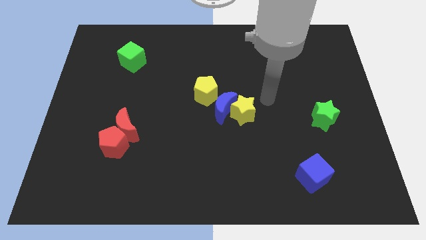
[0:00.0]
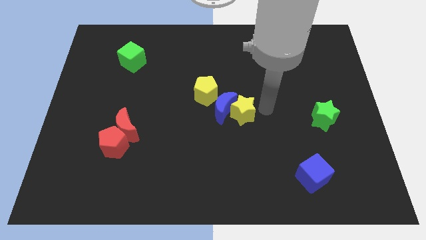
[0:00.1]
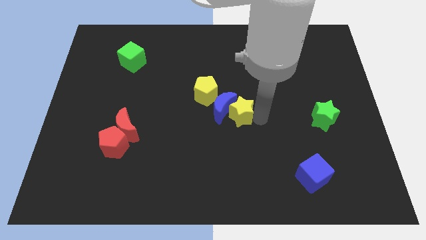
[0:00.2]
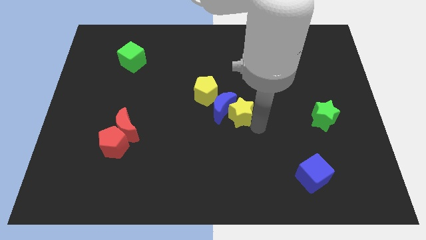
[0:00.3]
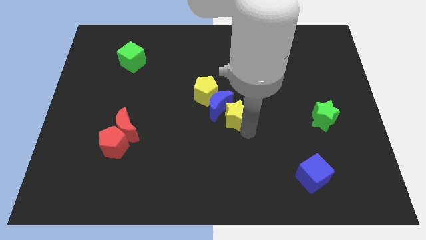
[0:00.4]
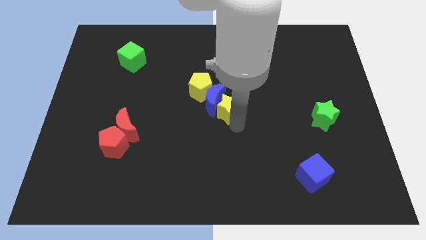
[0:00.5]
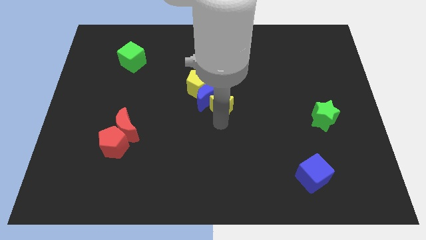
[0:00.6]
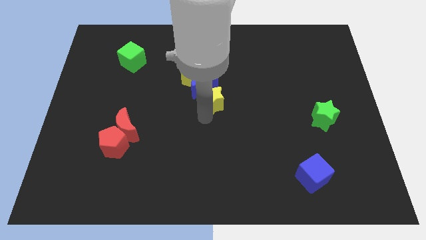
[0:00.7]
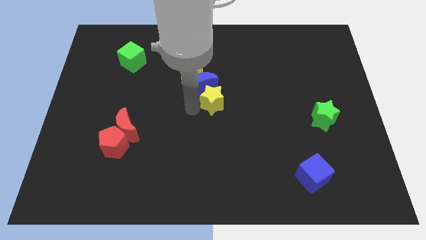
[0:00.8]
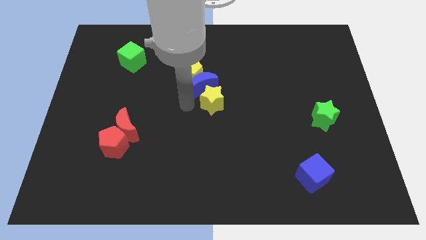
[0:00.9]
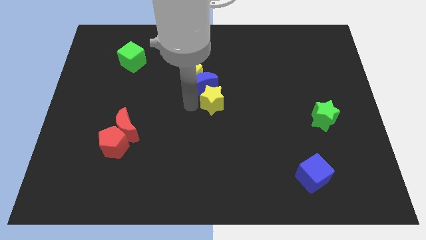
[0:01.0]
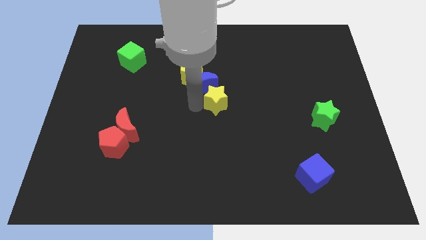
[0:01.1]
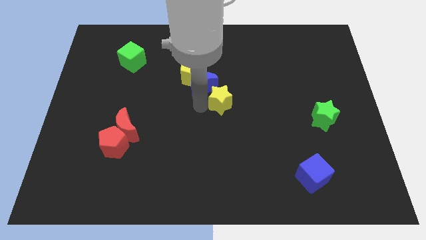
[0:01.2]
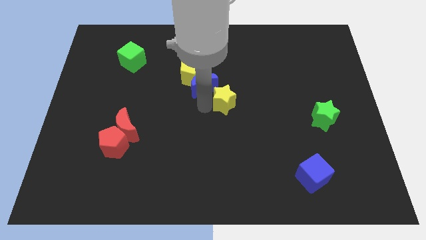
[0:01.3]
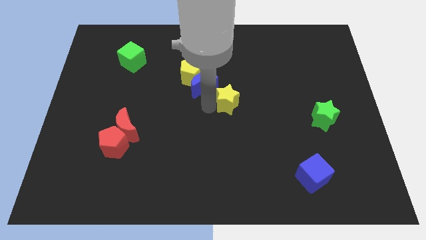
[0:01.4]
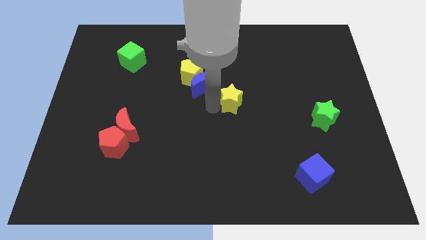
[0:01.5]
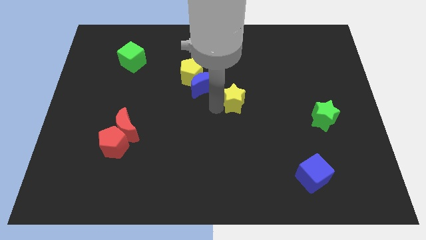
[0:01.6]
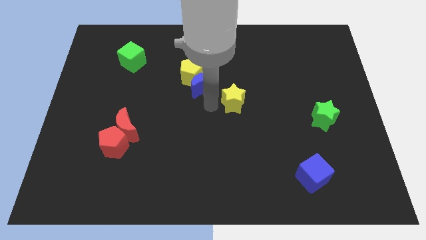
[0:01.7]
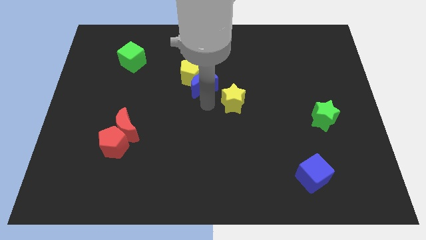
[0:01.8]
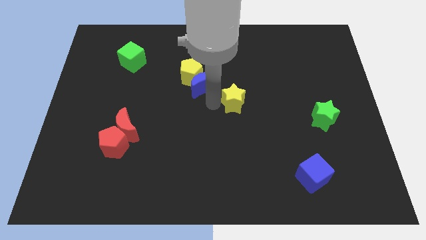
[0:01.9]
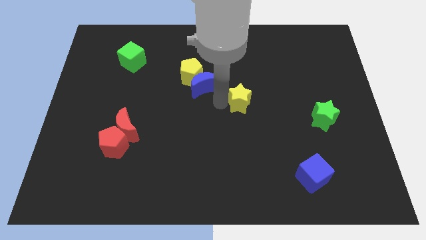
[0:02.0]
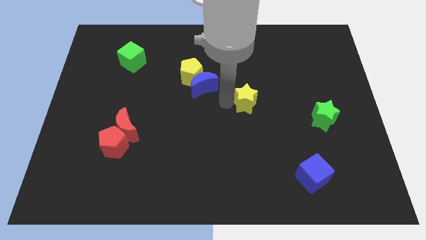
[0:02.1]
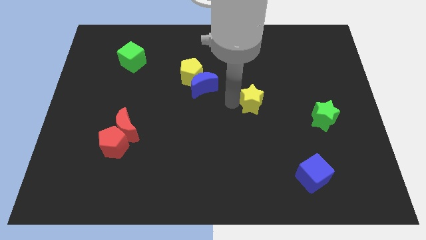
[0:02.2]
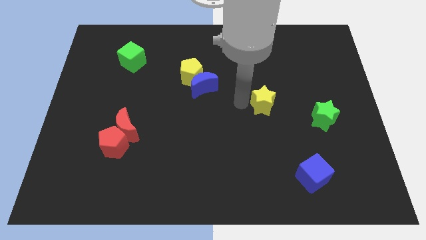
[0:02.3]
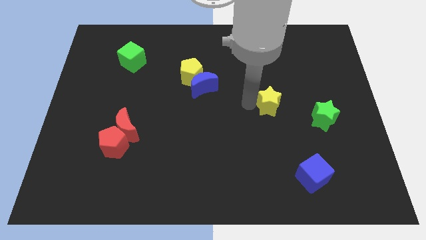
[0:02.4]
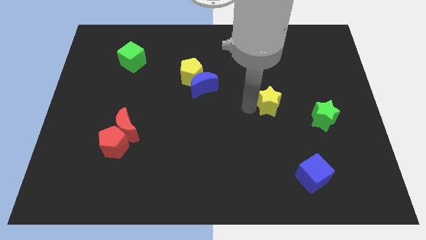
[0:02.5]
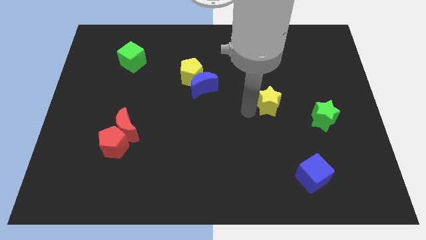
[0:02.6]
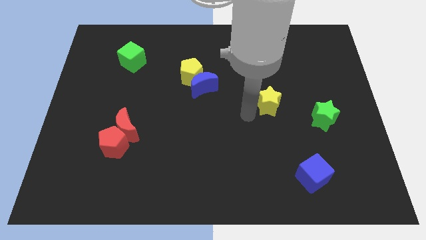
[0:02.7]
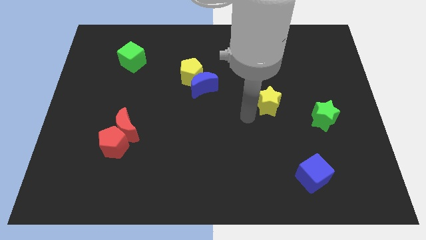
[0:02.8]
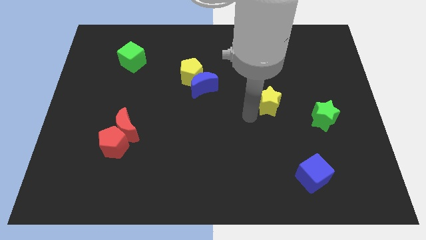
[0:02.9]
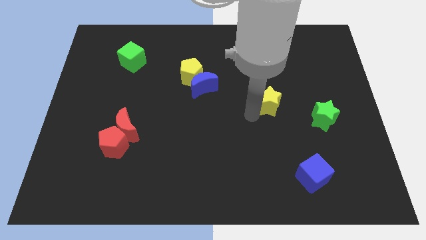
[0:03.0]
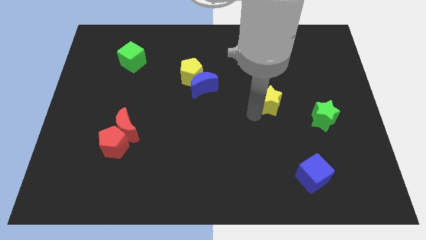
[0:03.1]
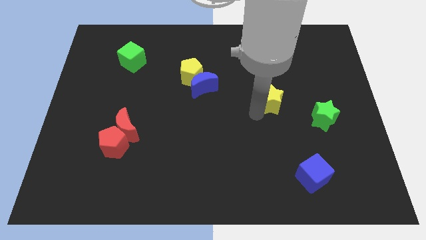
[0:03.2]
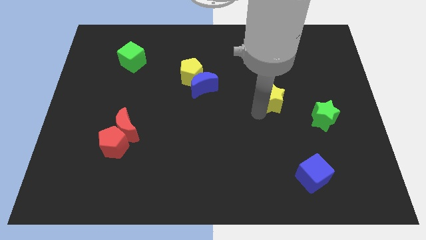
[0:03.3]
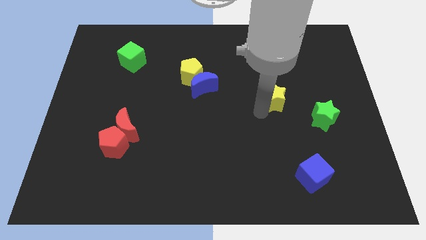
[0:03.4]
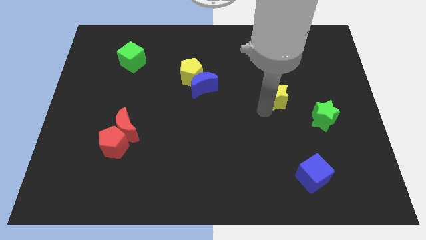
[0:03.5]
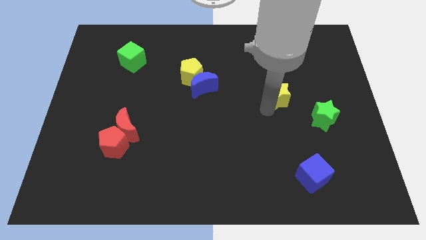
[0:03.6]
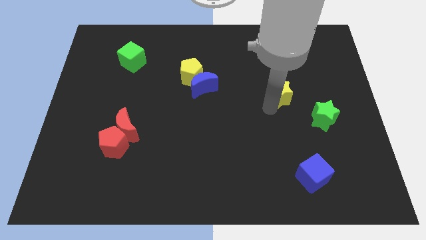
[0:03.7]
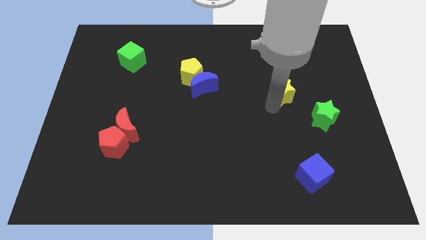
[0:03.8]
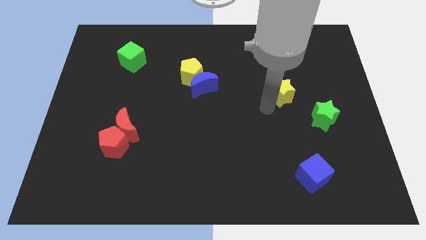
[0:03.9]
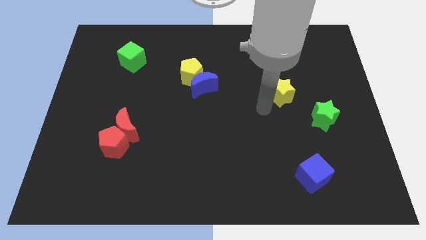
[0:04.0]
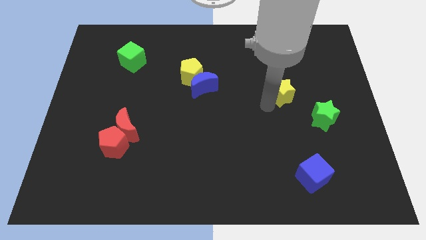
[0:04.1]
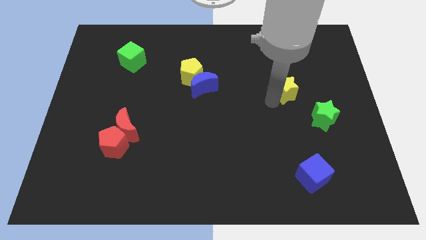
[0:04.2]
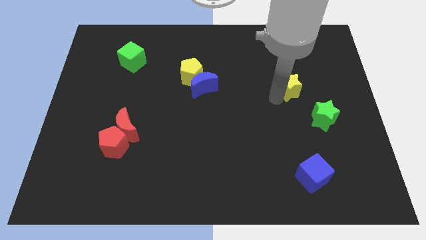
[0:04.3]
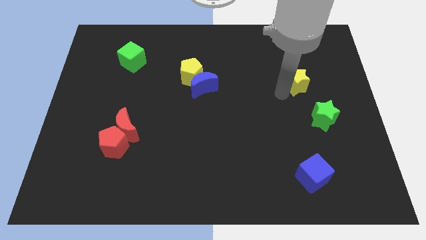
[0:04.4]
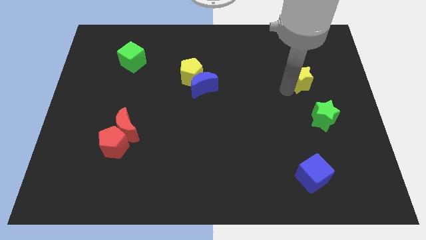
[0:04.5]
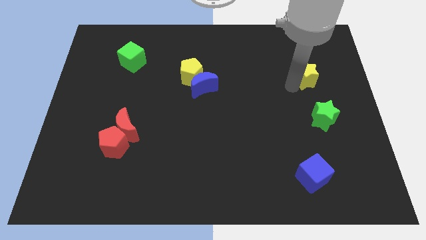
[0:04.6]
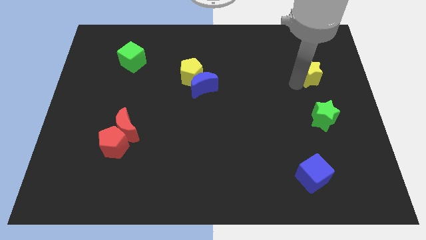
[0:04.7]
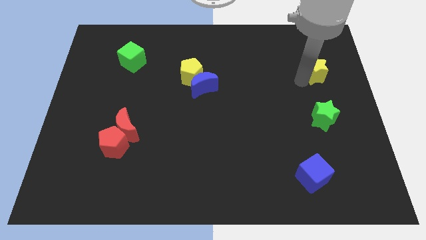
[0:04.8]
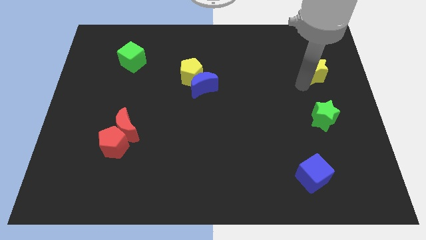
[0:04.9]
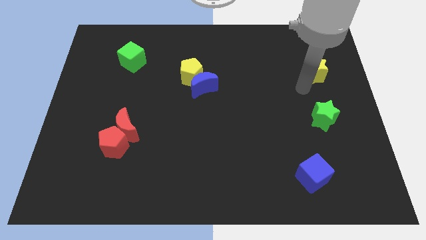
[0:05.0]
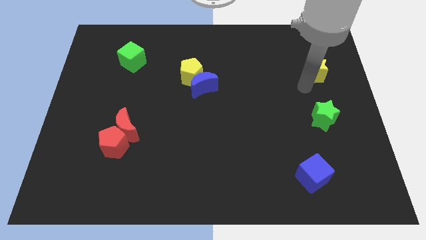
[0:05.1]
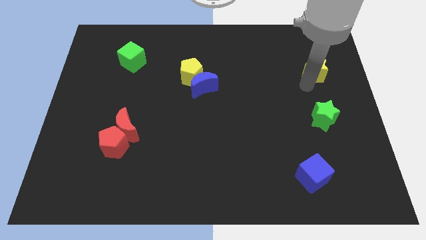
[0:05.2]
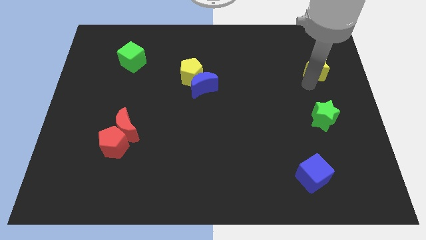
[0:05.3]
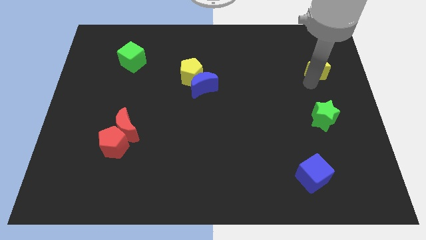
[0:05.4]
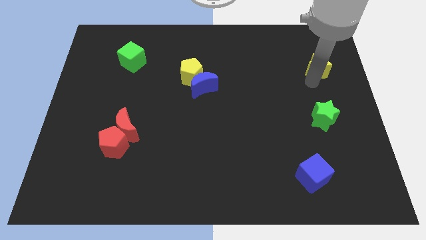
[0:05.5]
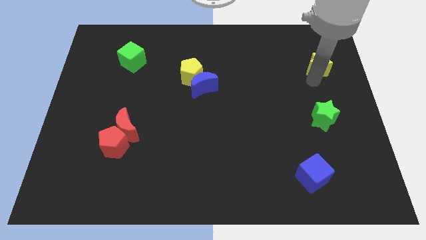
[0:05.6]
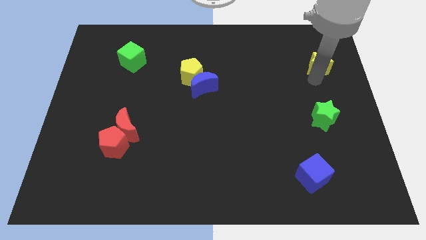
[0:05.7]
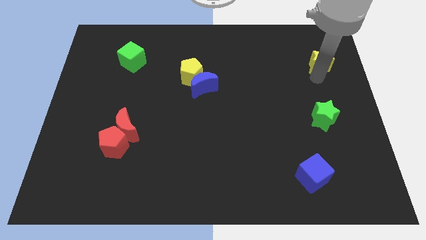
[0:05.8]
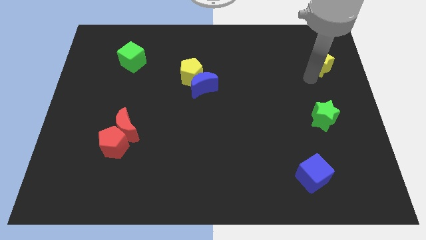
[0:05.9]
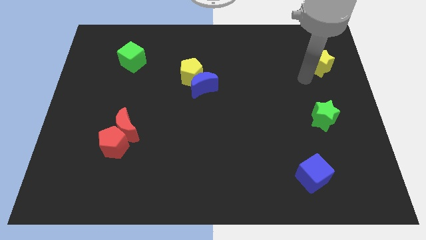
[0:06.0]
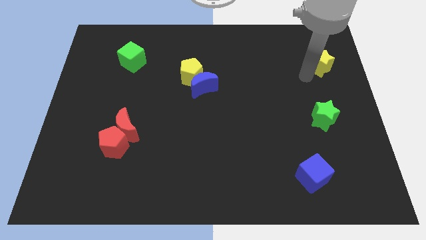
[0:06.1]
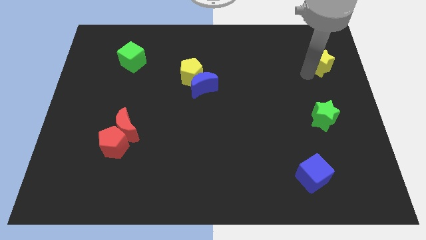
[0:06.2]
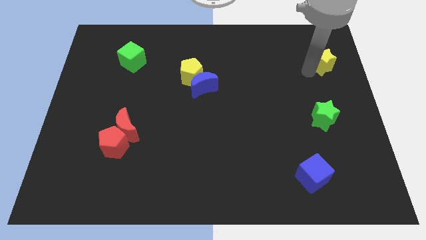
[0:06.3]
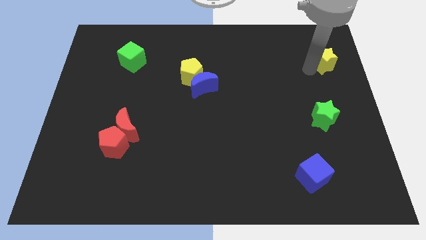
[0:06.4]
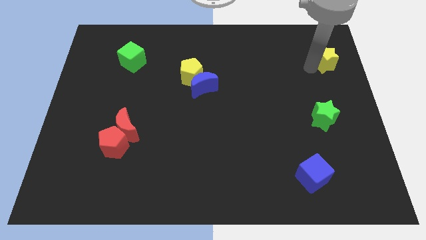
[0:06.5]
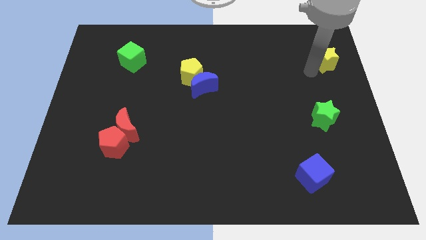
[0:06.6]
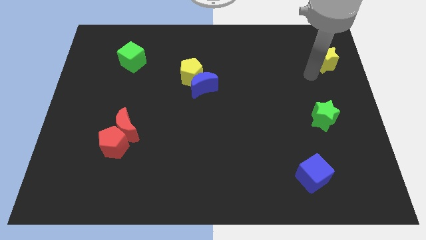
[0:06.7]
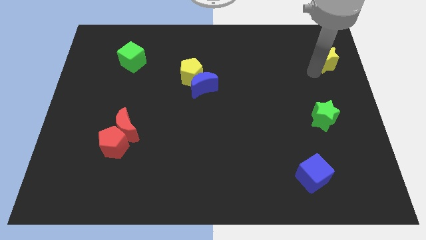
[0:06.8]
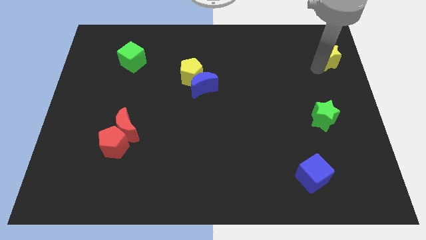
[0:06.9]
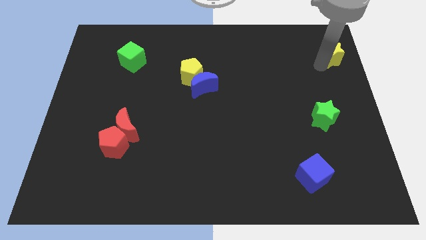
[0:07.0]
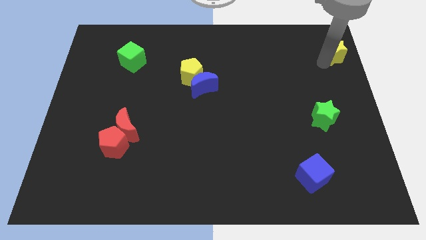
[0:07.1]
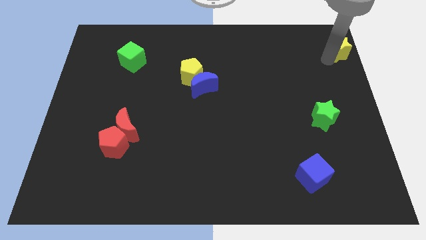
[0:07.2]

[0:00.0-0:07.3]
push the yellow star to the top right corner
